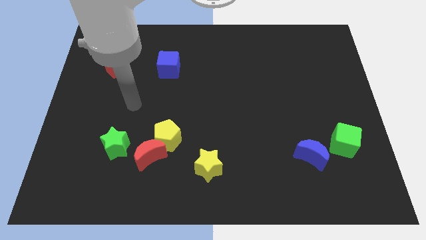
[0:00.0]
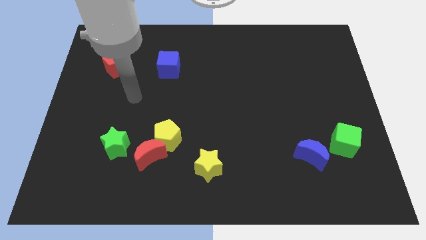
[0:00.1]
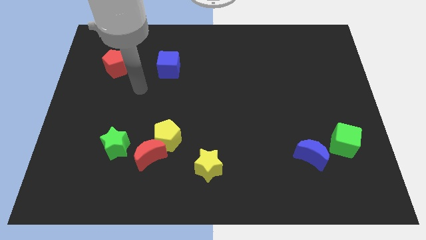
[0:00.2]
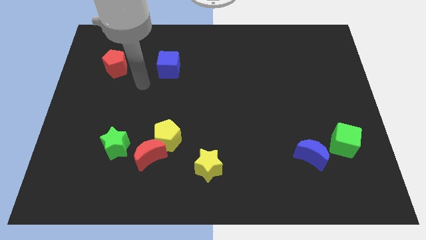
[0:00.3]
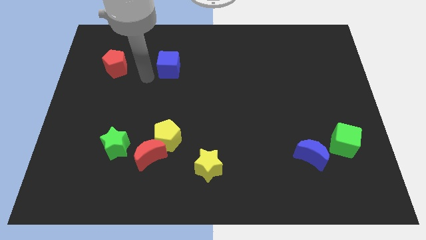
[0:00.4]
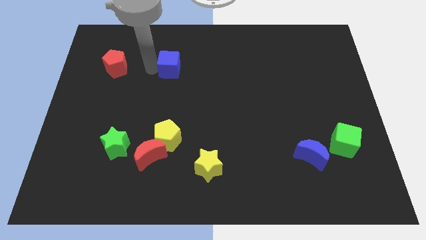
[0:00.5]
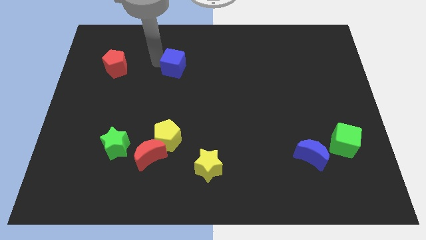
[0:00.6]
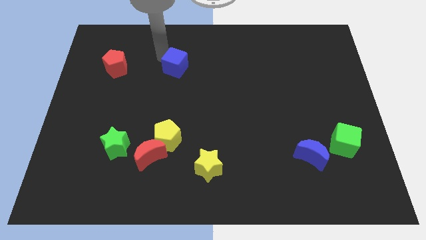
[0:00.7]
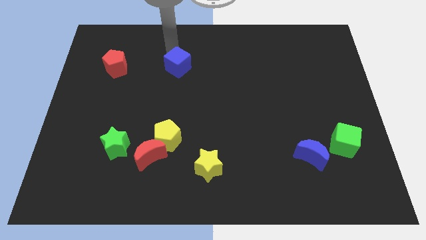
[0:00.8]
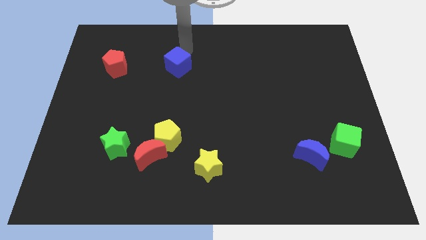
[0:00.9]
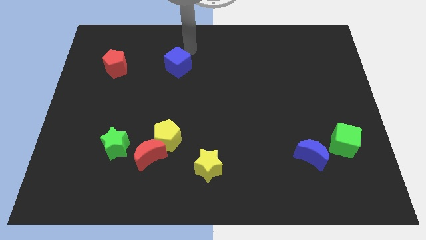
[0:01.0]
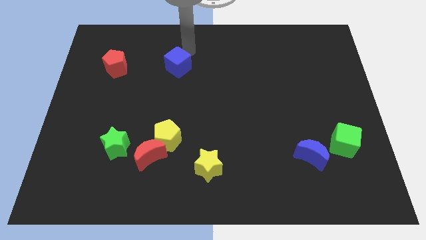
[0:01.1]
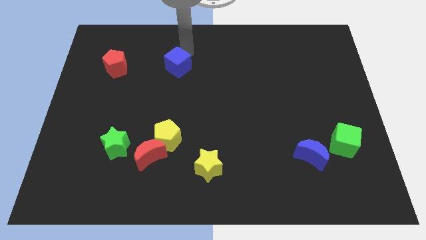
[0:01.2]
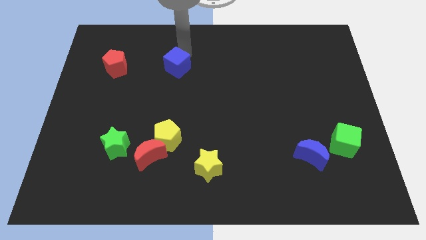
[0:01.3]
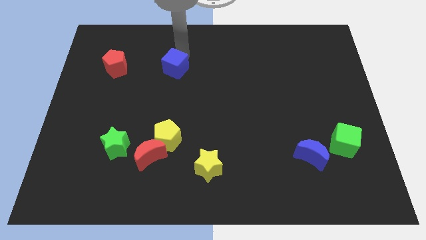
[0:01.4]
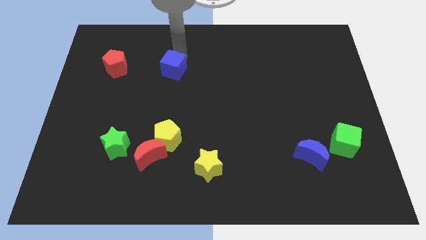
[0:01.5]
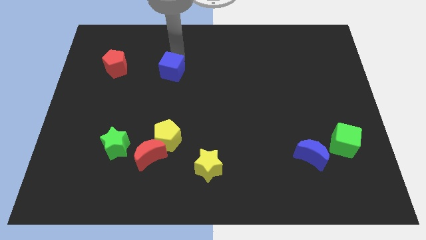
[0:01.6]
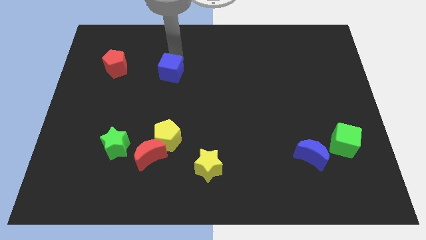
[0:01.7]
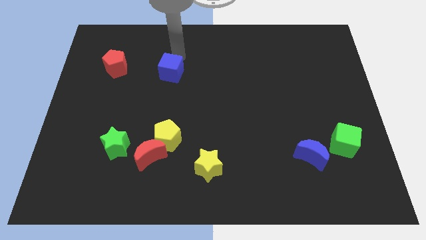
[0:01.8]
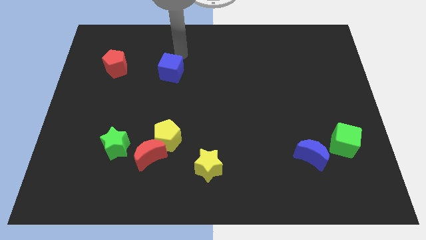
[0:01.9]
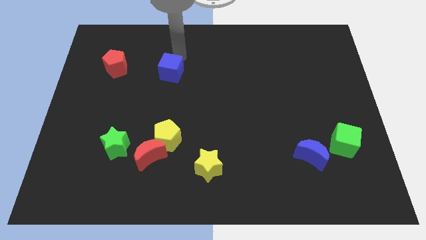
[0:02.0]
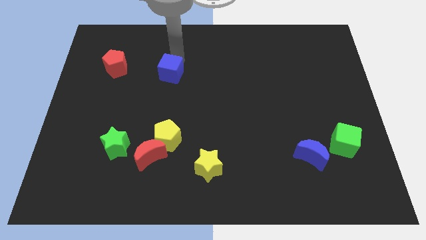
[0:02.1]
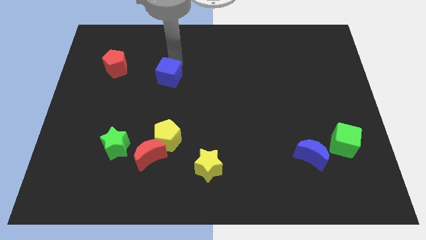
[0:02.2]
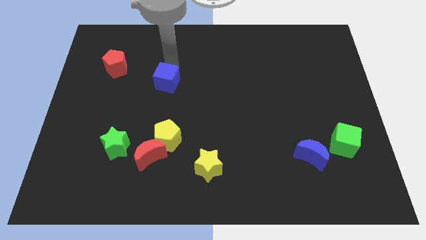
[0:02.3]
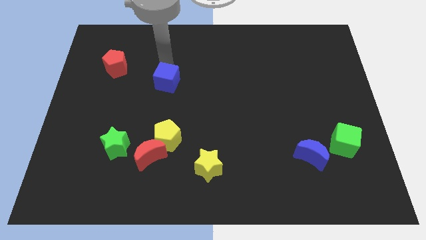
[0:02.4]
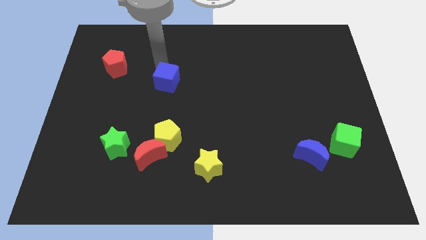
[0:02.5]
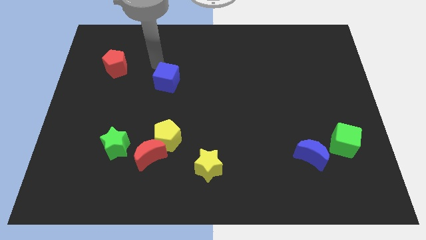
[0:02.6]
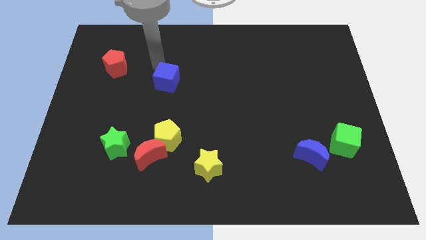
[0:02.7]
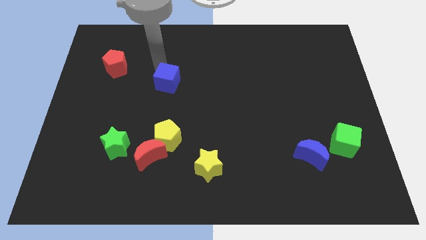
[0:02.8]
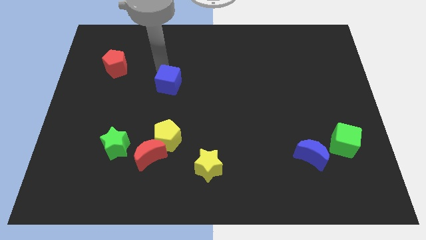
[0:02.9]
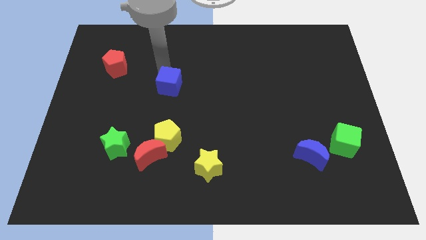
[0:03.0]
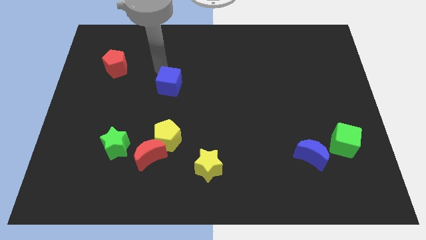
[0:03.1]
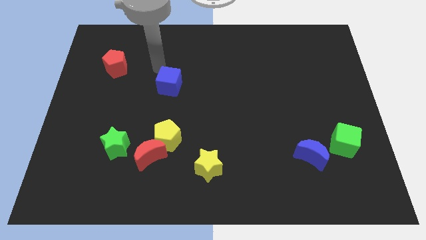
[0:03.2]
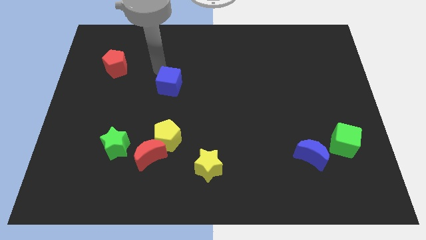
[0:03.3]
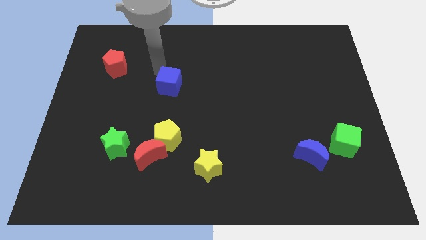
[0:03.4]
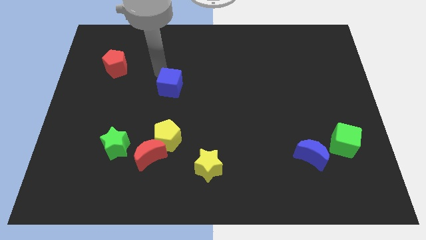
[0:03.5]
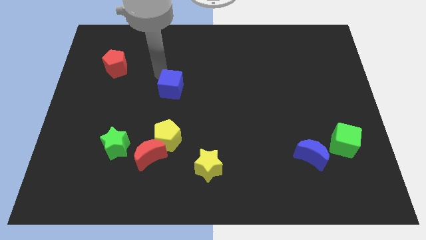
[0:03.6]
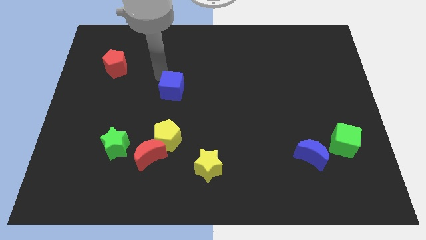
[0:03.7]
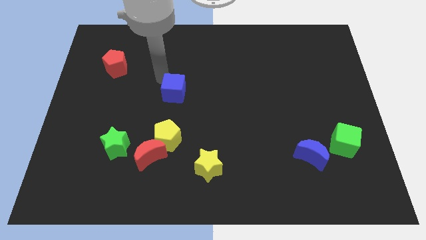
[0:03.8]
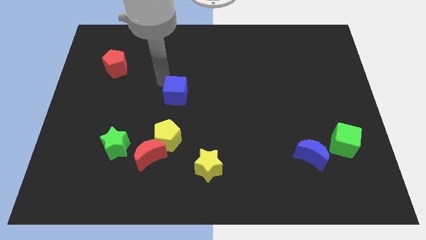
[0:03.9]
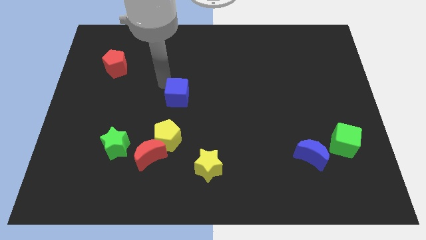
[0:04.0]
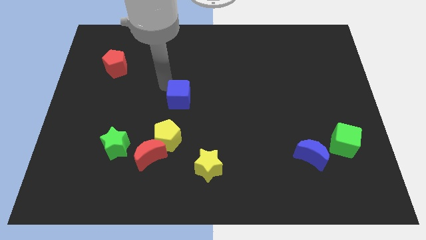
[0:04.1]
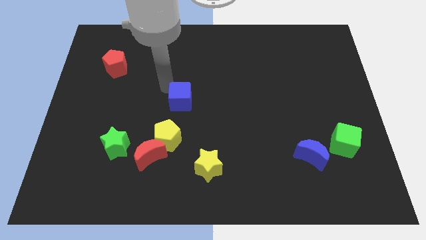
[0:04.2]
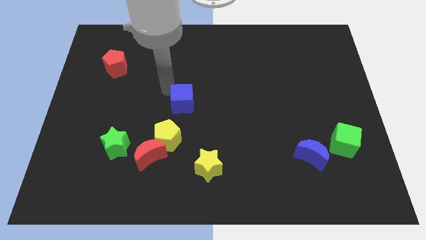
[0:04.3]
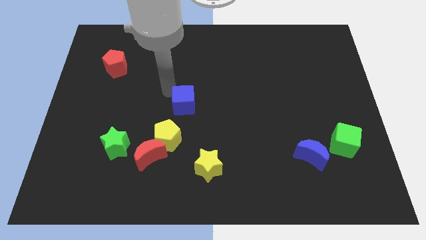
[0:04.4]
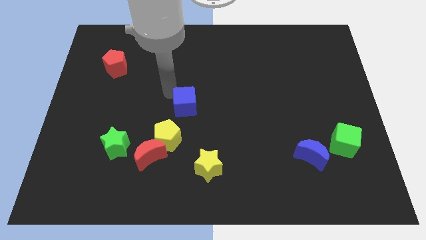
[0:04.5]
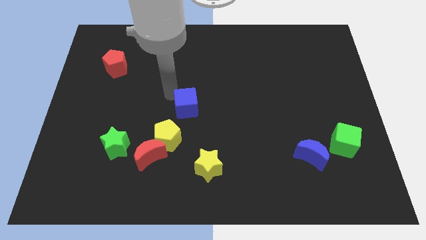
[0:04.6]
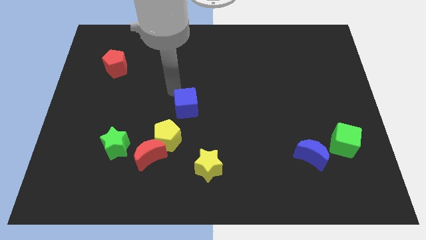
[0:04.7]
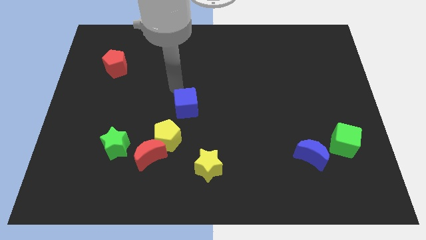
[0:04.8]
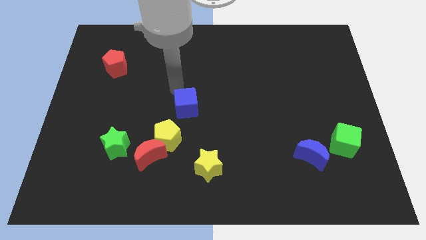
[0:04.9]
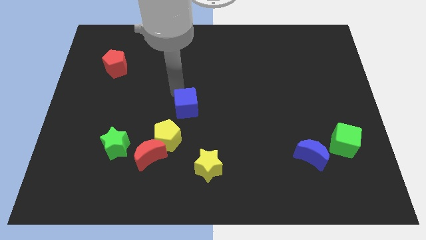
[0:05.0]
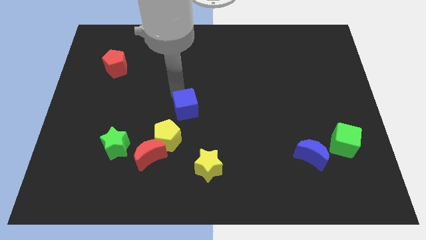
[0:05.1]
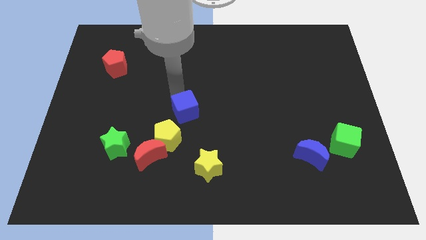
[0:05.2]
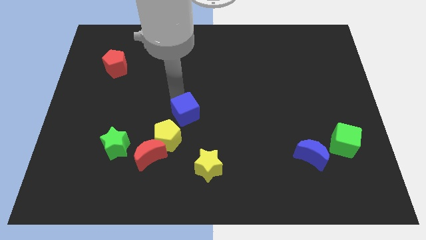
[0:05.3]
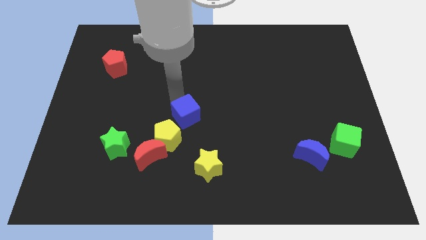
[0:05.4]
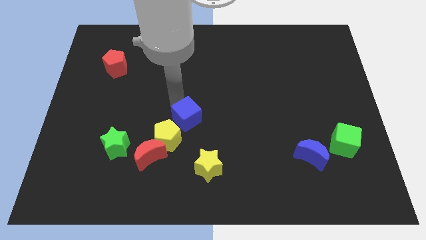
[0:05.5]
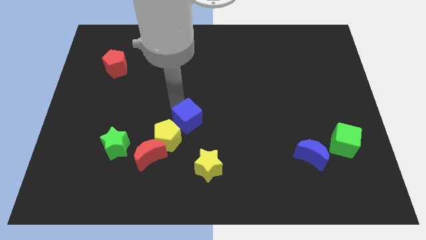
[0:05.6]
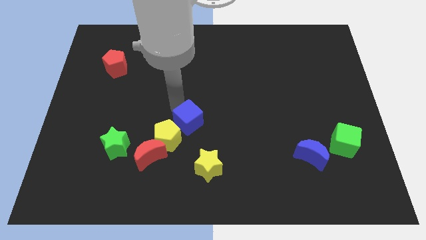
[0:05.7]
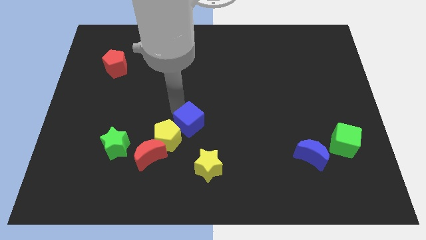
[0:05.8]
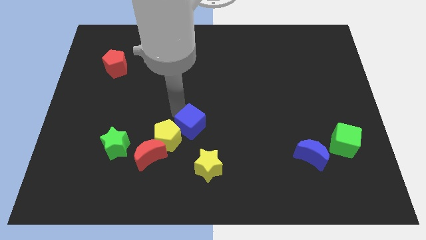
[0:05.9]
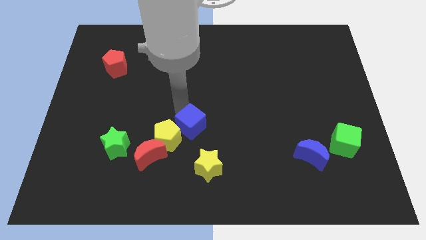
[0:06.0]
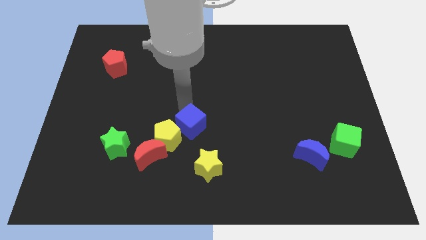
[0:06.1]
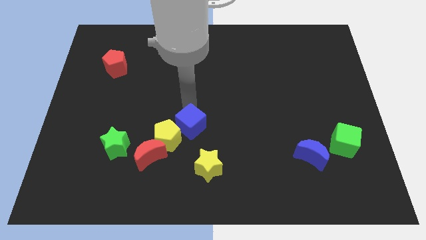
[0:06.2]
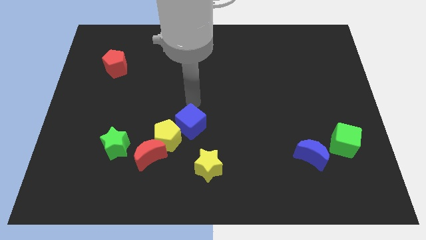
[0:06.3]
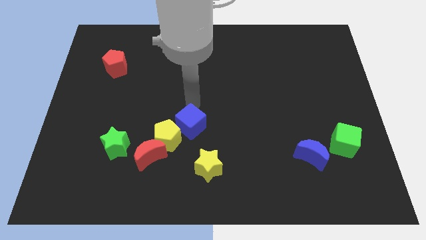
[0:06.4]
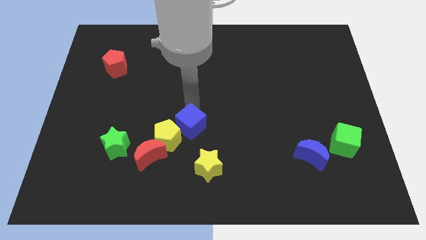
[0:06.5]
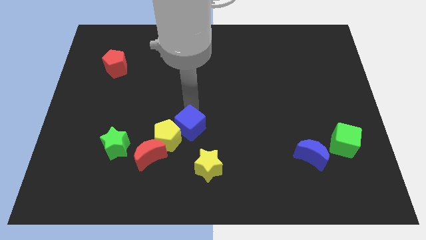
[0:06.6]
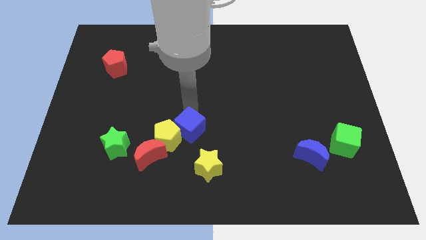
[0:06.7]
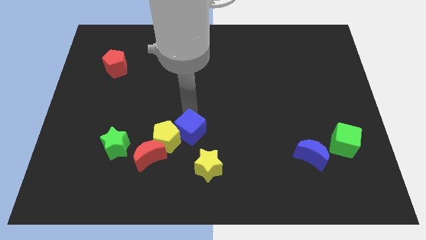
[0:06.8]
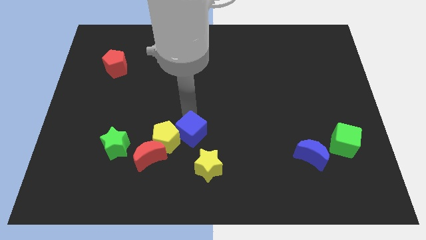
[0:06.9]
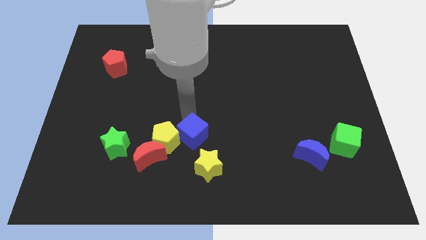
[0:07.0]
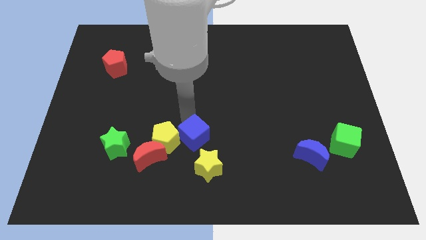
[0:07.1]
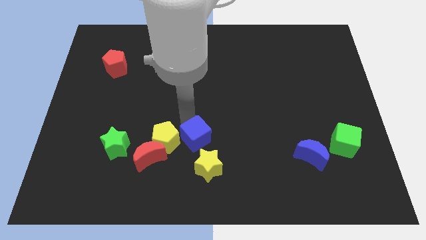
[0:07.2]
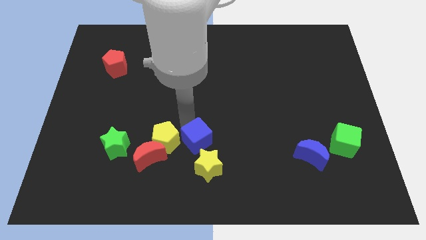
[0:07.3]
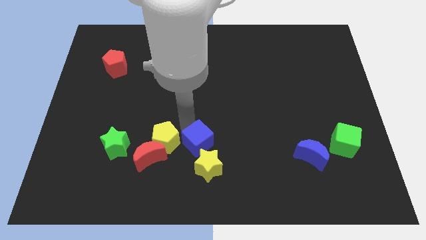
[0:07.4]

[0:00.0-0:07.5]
move the blue cube downwards

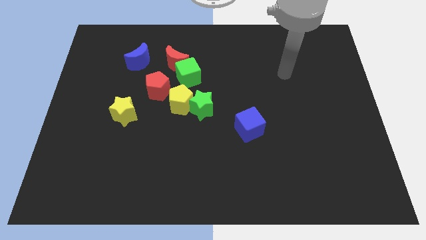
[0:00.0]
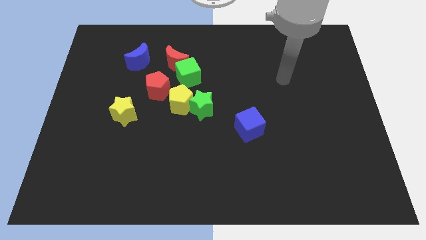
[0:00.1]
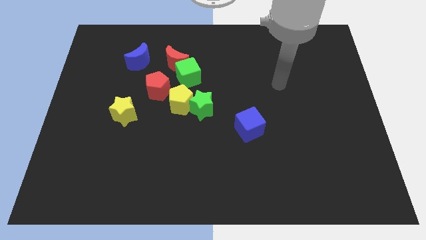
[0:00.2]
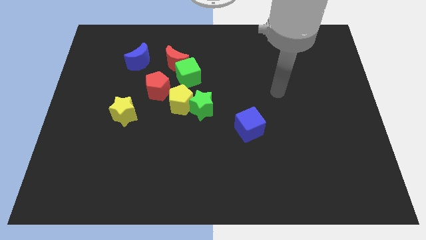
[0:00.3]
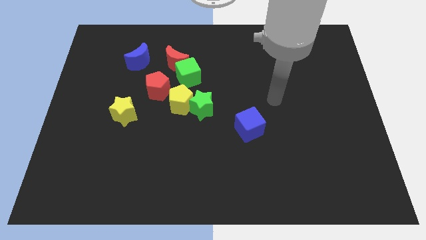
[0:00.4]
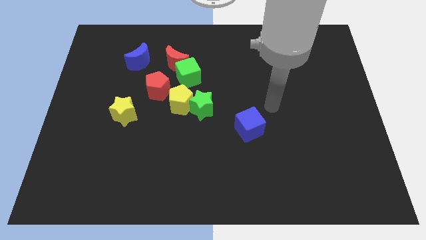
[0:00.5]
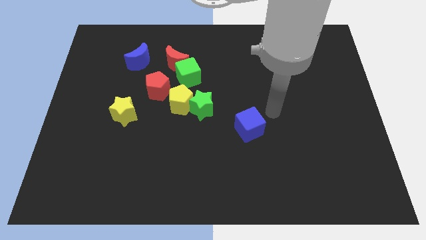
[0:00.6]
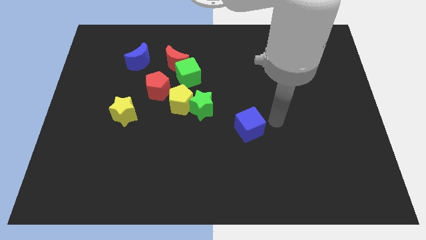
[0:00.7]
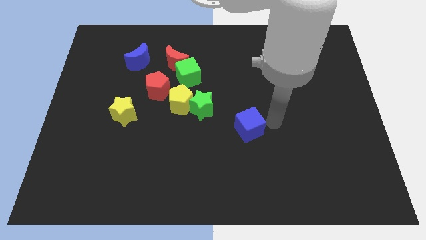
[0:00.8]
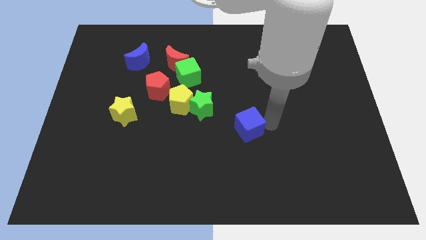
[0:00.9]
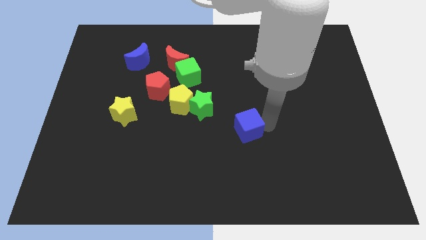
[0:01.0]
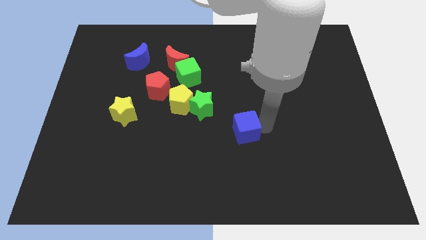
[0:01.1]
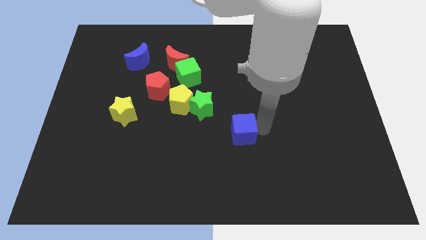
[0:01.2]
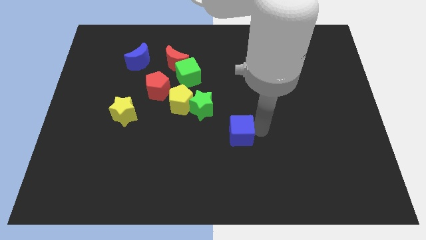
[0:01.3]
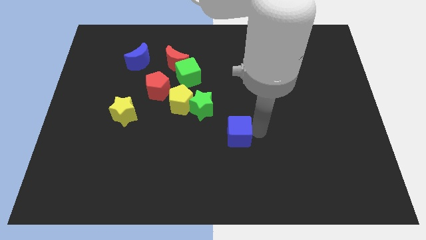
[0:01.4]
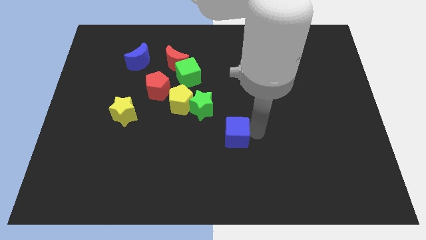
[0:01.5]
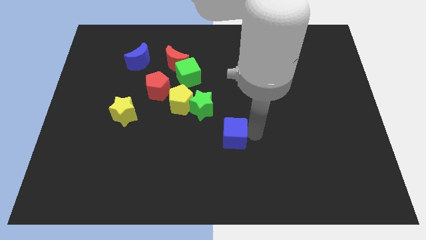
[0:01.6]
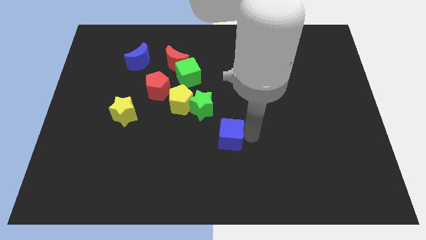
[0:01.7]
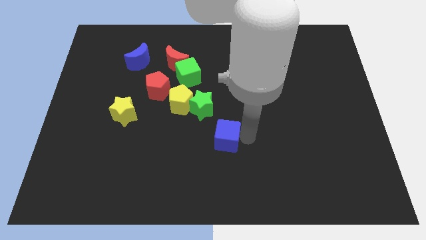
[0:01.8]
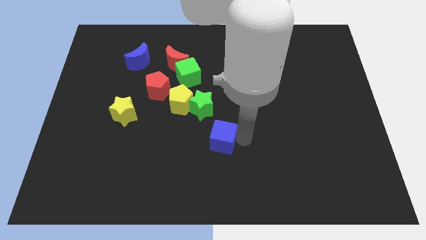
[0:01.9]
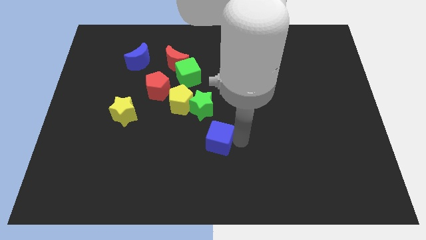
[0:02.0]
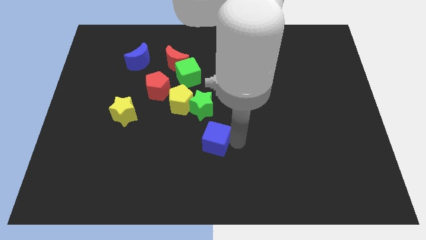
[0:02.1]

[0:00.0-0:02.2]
move the blue cube somewhat left
